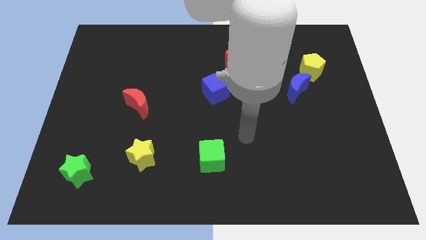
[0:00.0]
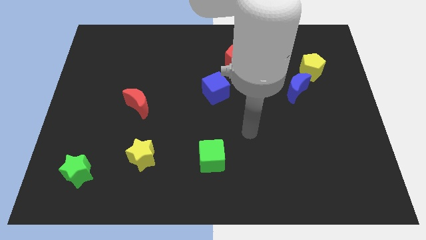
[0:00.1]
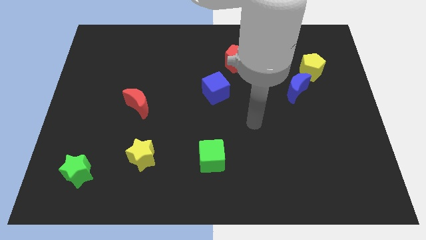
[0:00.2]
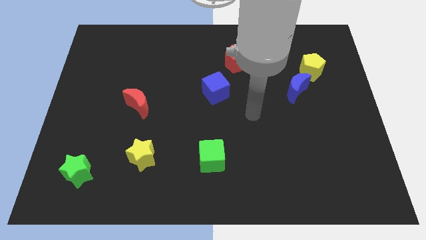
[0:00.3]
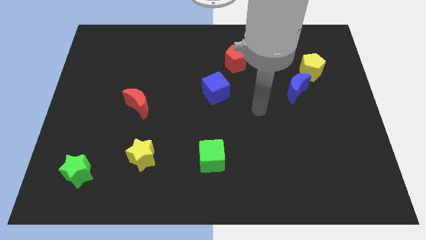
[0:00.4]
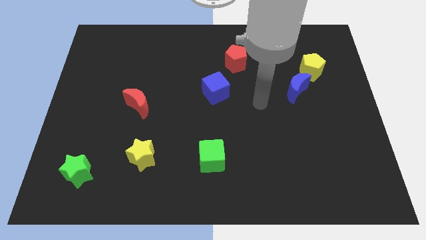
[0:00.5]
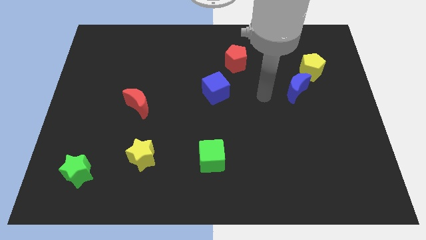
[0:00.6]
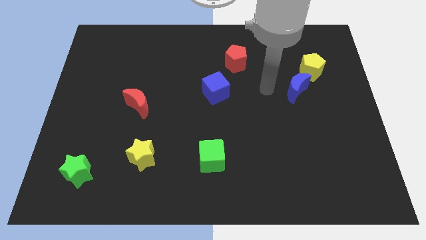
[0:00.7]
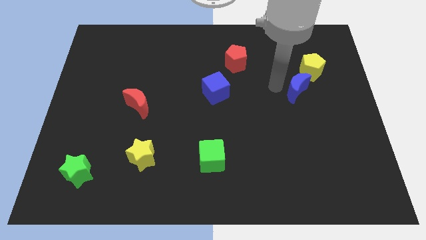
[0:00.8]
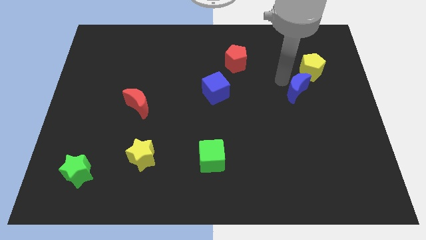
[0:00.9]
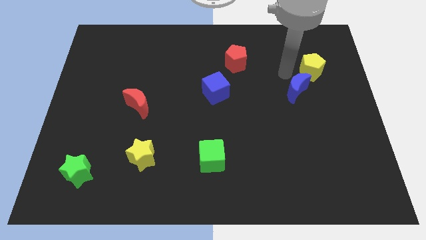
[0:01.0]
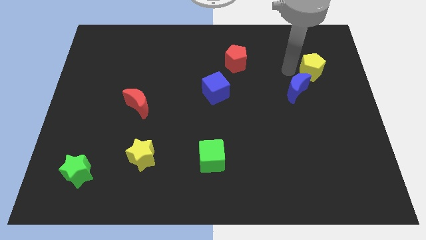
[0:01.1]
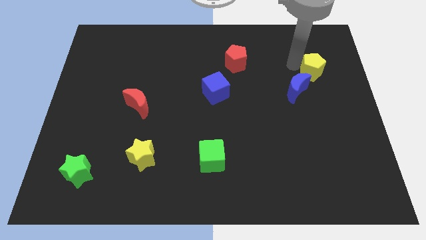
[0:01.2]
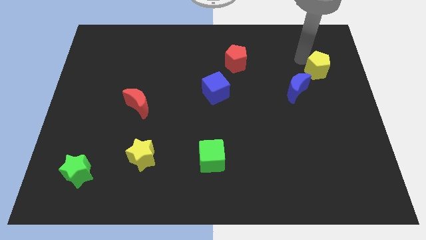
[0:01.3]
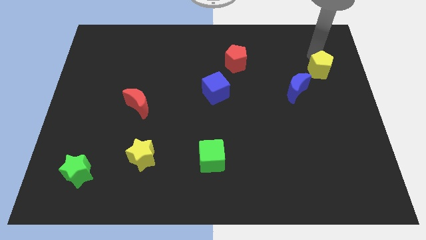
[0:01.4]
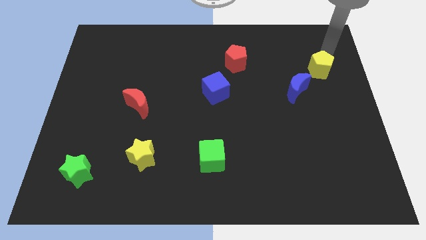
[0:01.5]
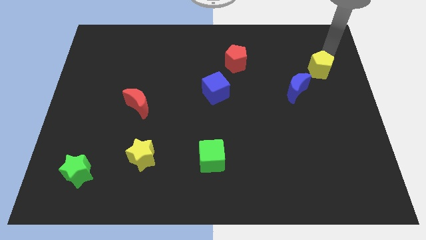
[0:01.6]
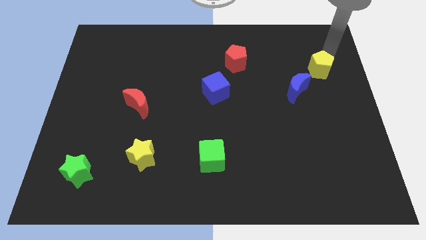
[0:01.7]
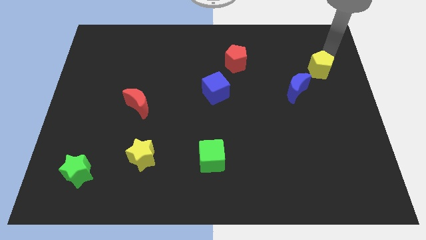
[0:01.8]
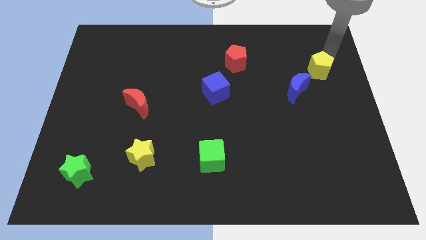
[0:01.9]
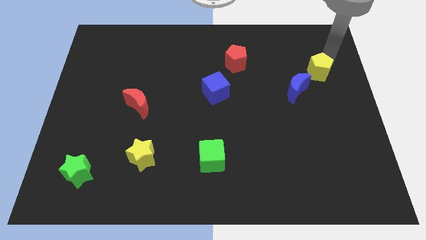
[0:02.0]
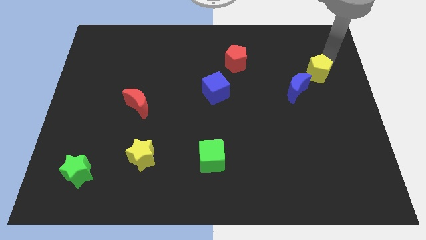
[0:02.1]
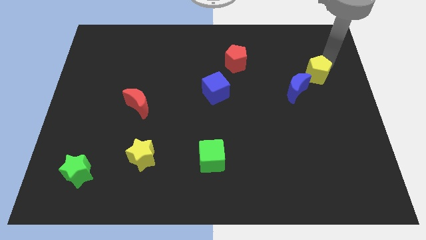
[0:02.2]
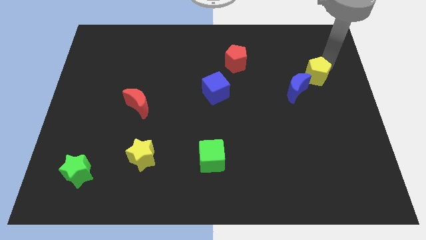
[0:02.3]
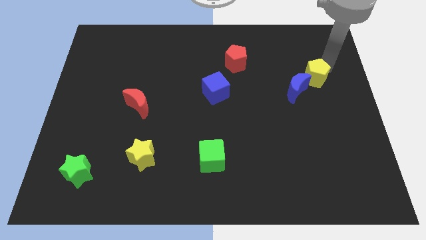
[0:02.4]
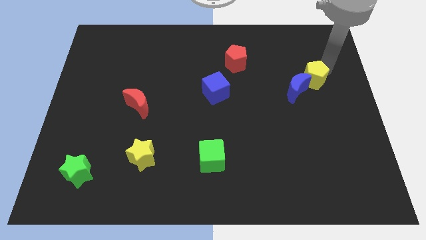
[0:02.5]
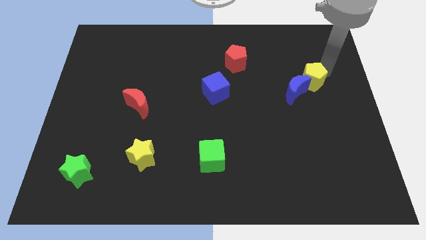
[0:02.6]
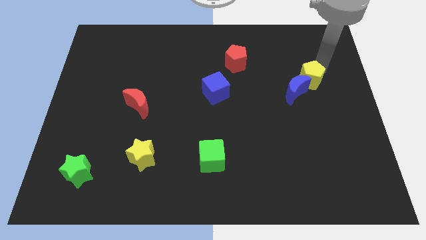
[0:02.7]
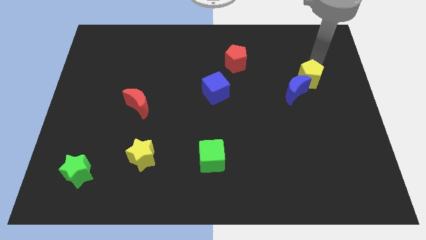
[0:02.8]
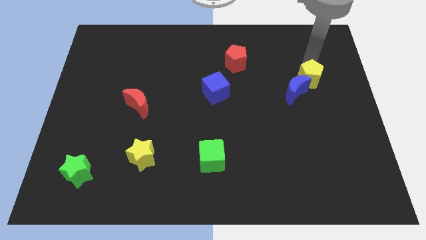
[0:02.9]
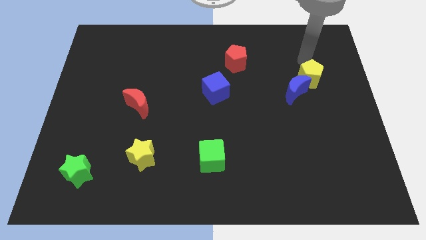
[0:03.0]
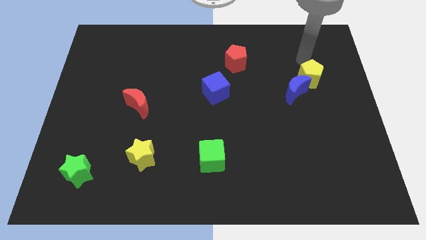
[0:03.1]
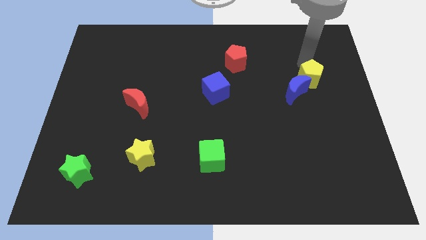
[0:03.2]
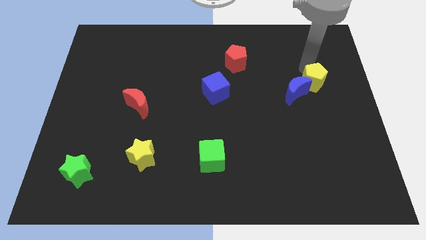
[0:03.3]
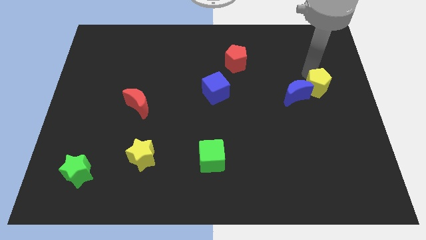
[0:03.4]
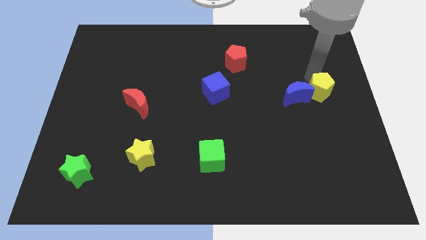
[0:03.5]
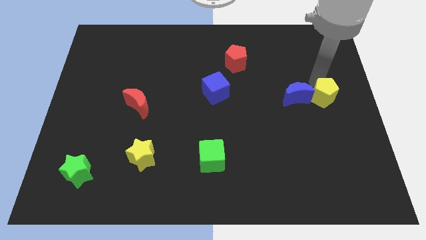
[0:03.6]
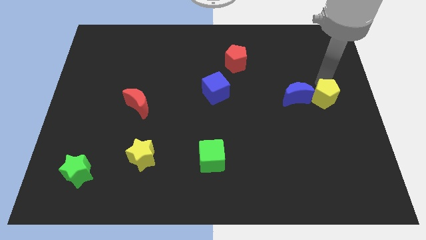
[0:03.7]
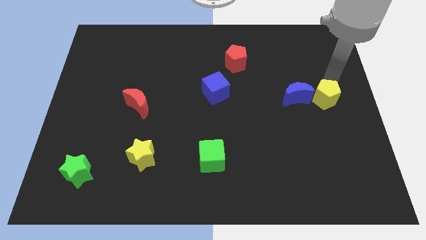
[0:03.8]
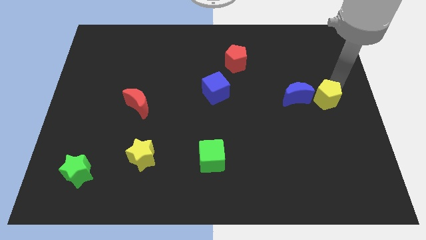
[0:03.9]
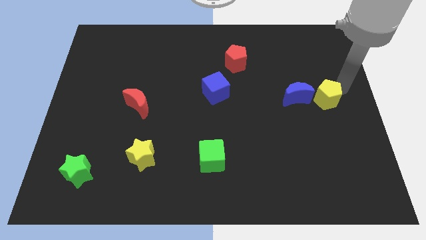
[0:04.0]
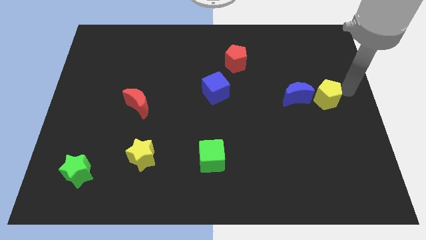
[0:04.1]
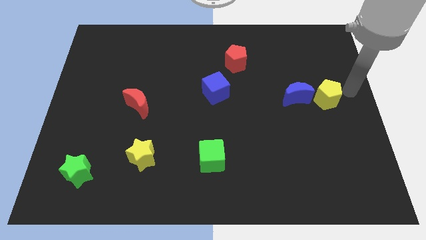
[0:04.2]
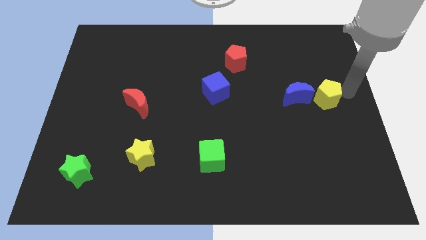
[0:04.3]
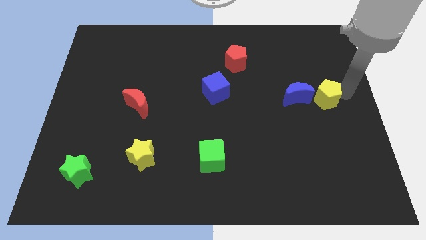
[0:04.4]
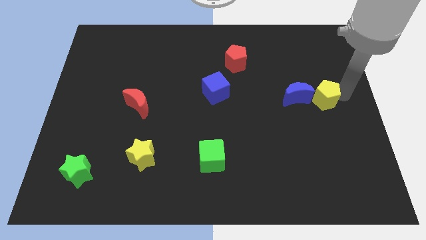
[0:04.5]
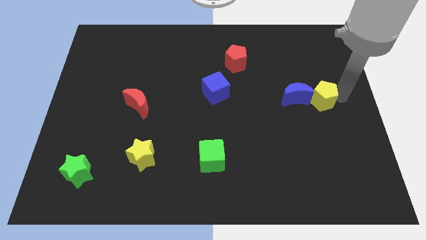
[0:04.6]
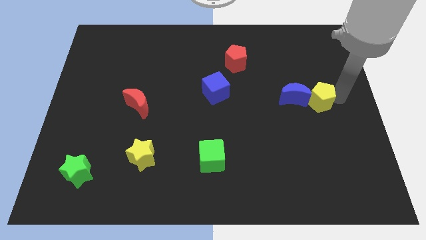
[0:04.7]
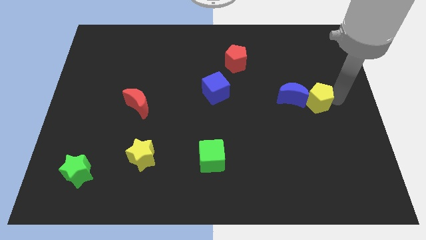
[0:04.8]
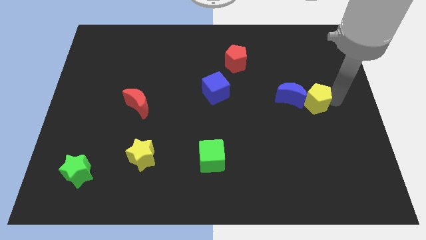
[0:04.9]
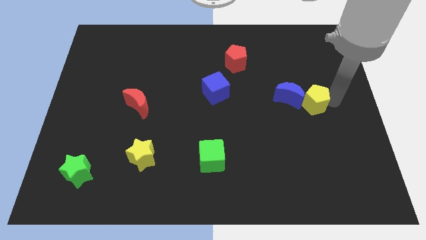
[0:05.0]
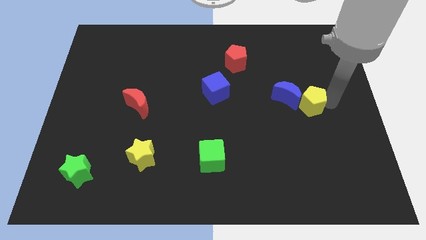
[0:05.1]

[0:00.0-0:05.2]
move the yellow pentagon down and to the left diagonally a little bit

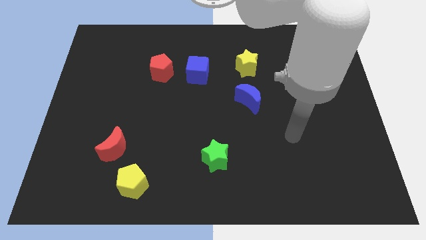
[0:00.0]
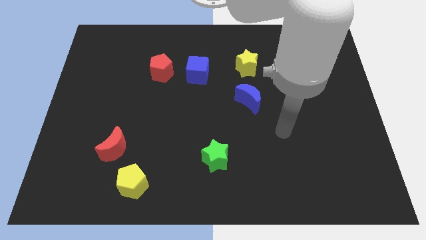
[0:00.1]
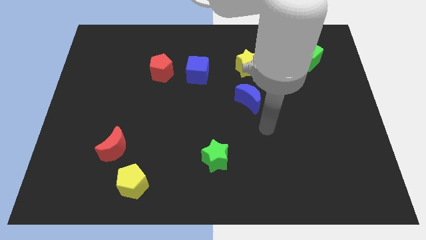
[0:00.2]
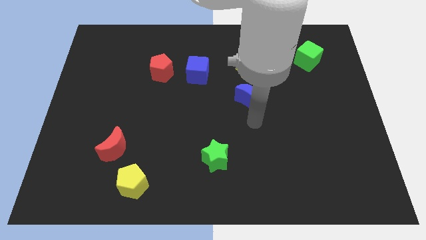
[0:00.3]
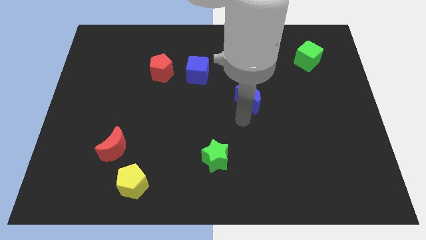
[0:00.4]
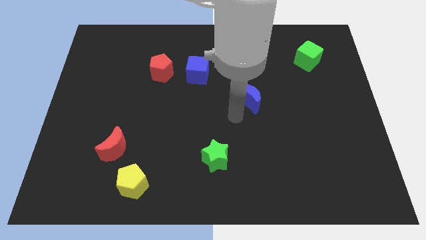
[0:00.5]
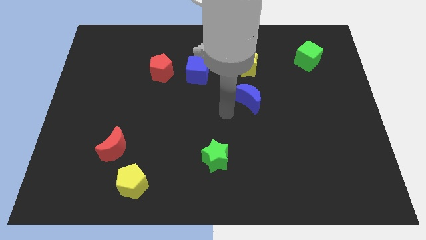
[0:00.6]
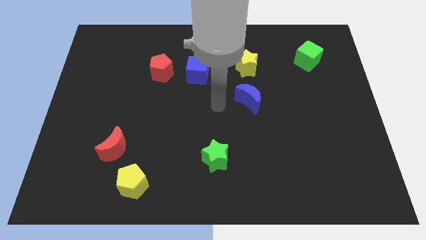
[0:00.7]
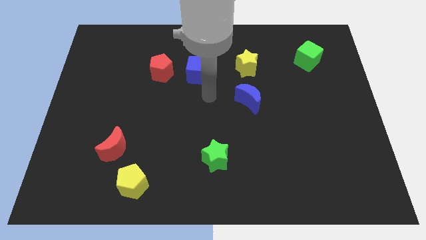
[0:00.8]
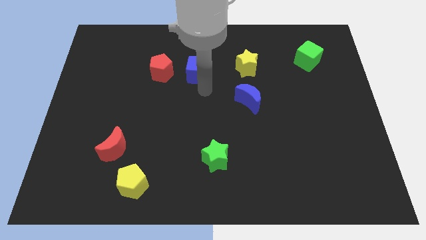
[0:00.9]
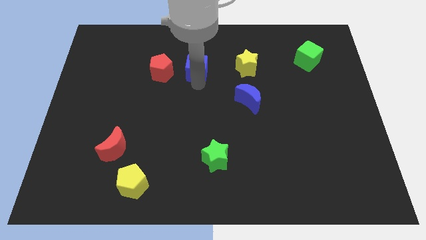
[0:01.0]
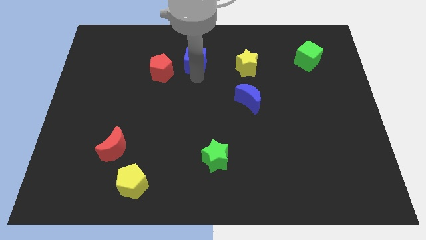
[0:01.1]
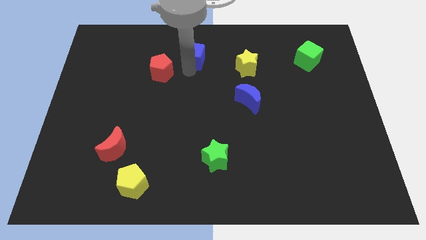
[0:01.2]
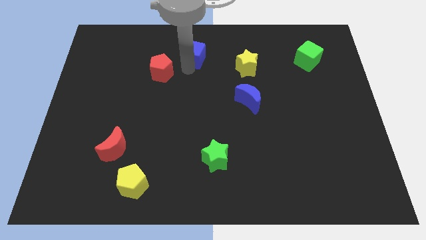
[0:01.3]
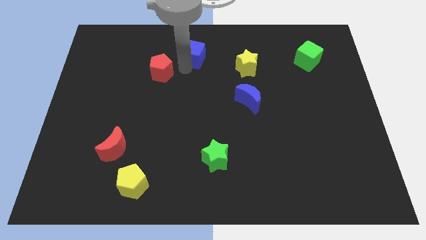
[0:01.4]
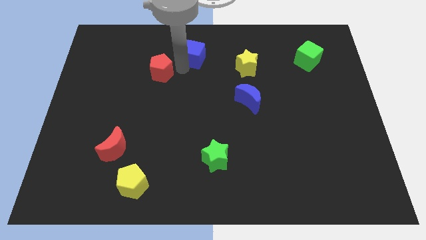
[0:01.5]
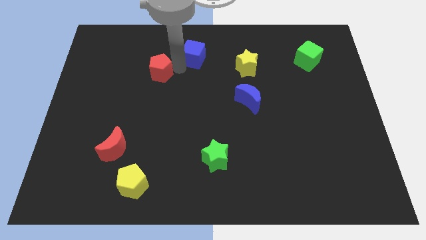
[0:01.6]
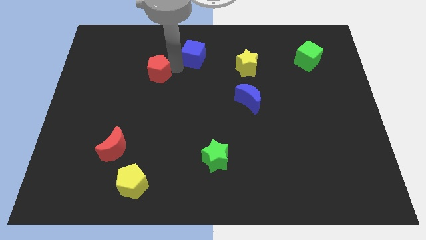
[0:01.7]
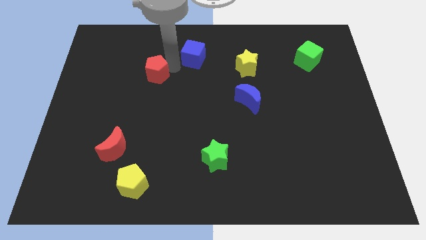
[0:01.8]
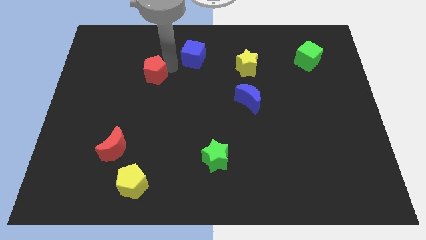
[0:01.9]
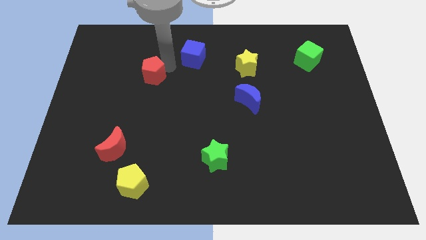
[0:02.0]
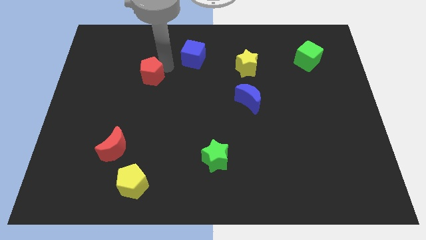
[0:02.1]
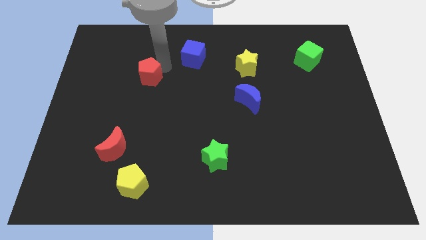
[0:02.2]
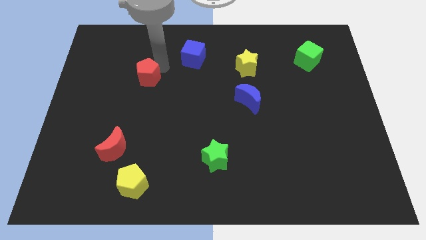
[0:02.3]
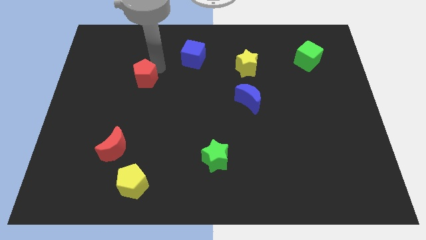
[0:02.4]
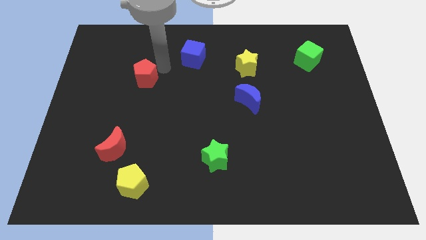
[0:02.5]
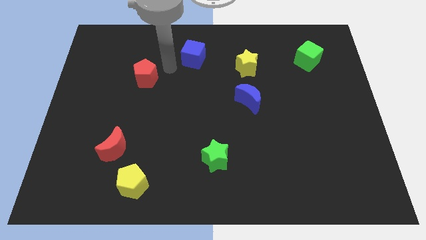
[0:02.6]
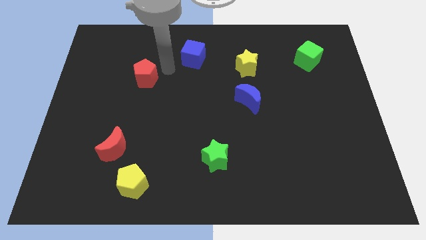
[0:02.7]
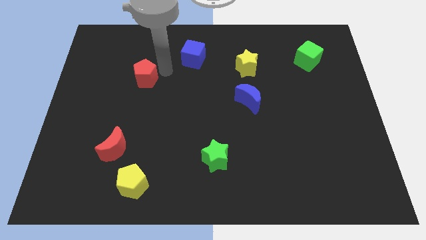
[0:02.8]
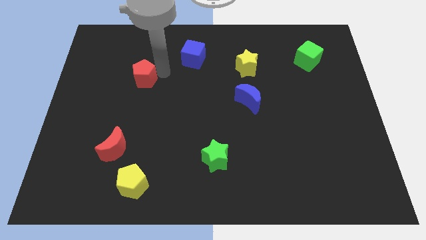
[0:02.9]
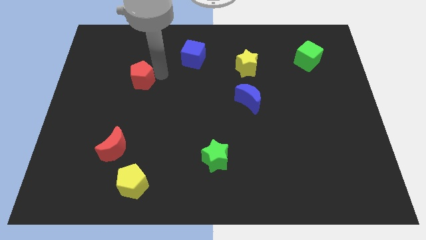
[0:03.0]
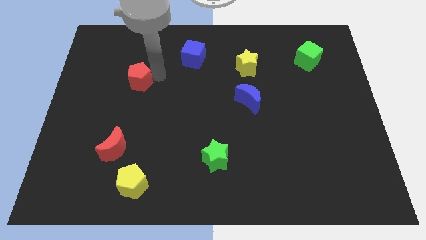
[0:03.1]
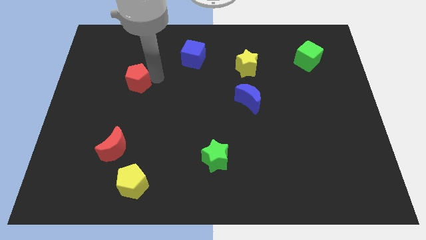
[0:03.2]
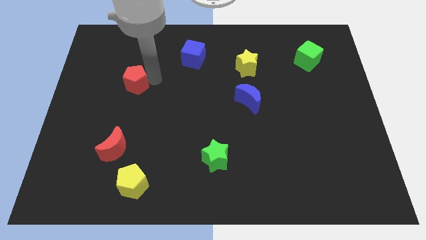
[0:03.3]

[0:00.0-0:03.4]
slightly move the red pentagon downwards and then to the left
